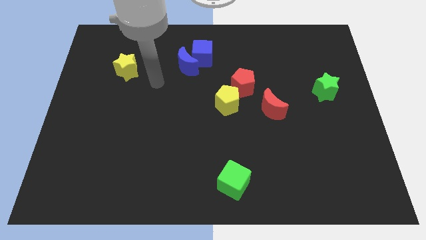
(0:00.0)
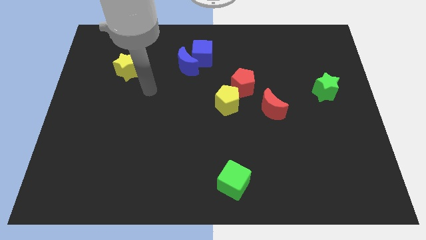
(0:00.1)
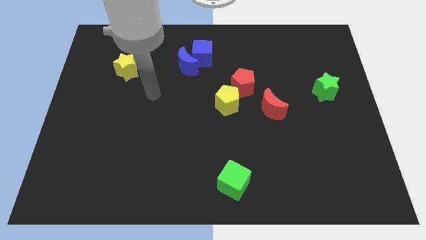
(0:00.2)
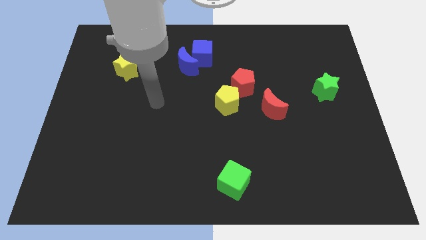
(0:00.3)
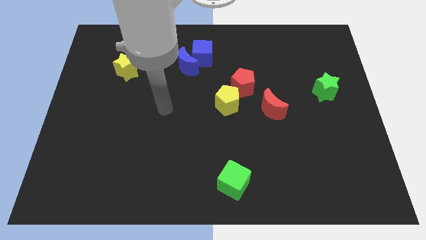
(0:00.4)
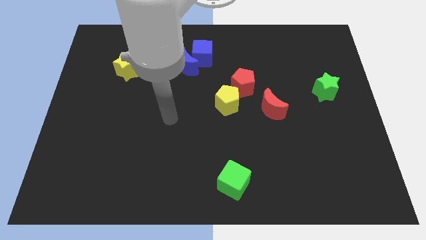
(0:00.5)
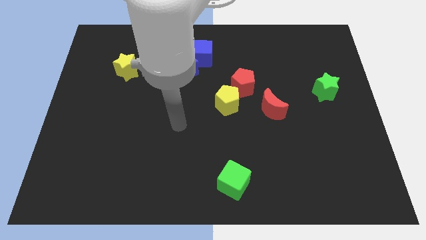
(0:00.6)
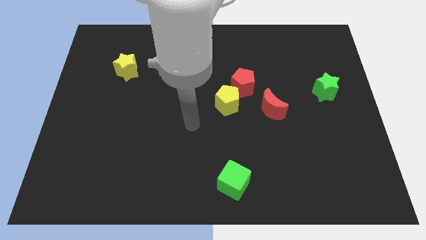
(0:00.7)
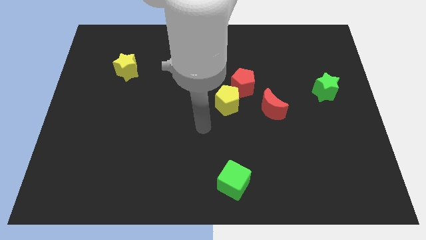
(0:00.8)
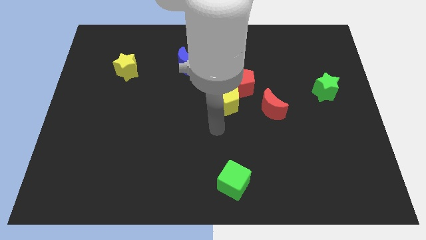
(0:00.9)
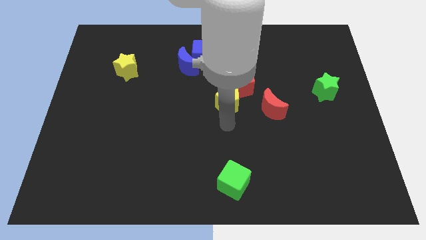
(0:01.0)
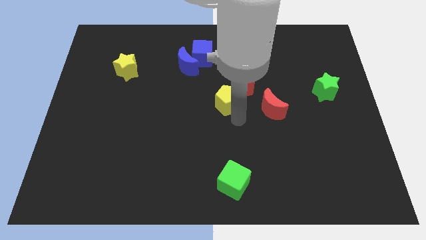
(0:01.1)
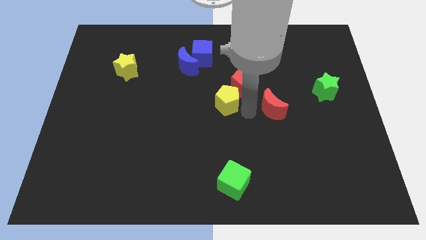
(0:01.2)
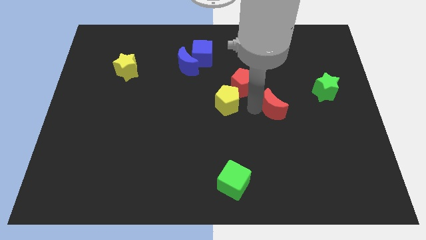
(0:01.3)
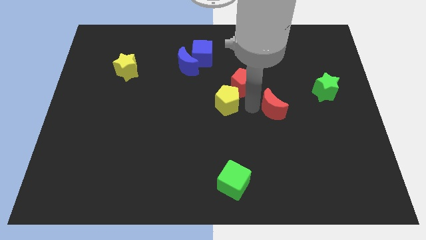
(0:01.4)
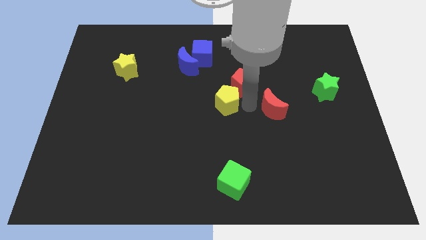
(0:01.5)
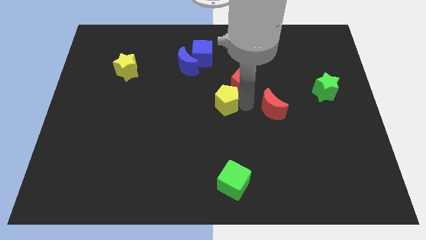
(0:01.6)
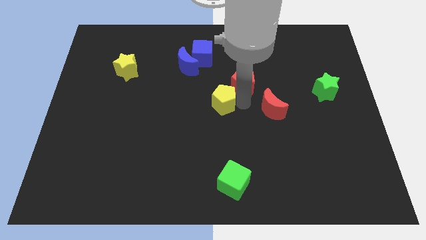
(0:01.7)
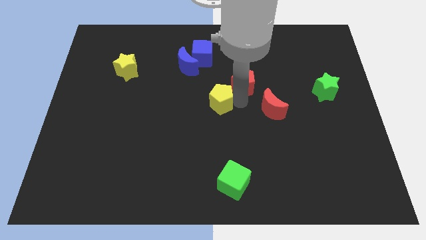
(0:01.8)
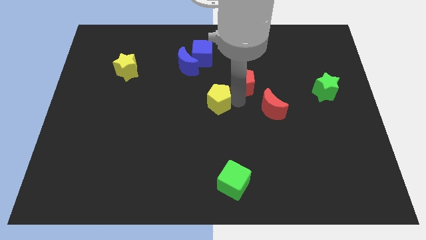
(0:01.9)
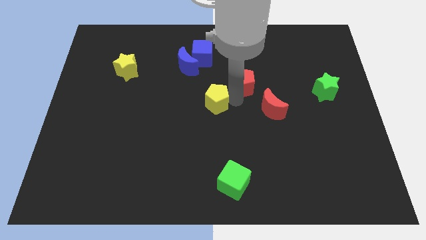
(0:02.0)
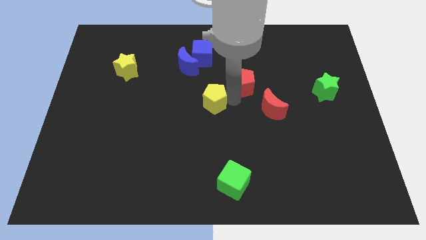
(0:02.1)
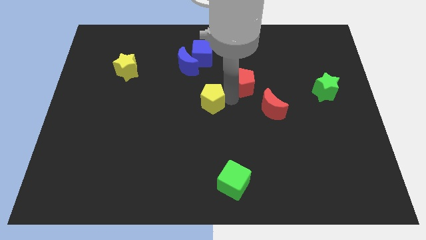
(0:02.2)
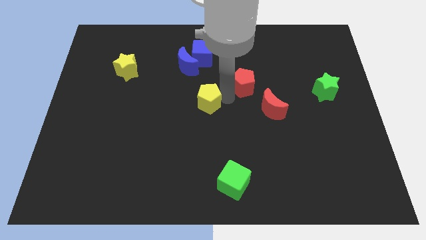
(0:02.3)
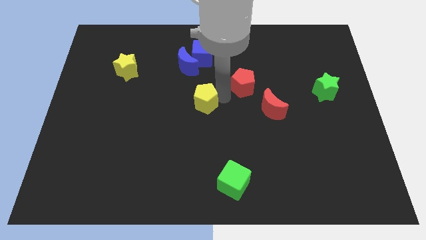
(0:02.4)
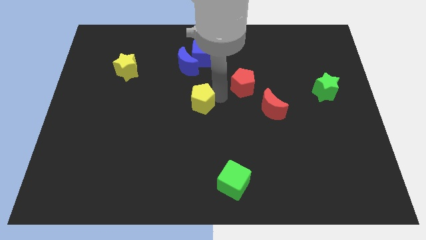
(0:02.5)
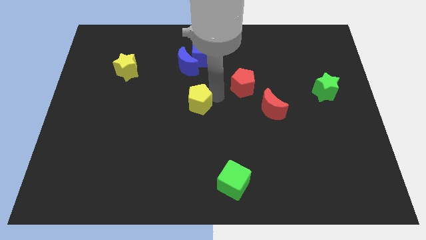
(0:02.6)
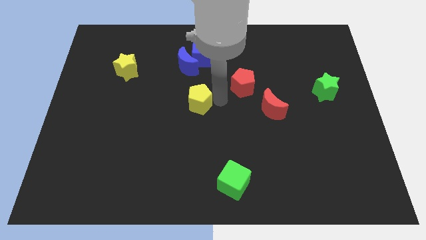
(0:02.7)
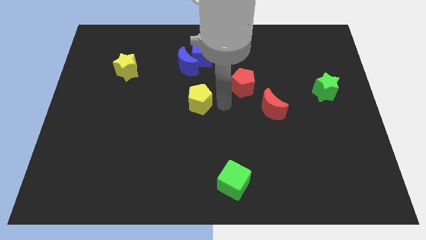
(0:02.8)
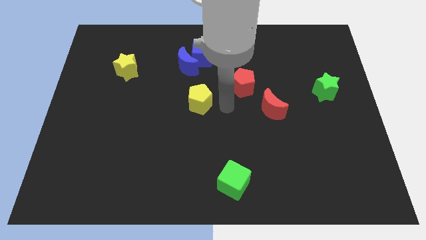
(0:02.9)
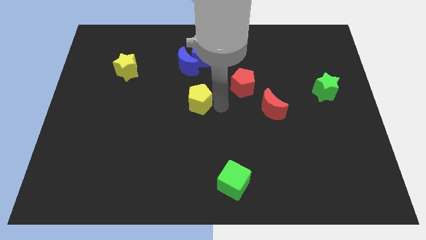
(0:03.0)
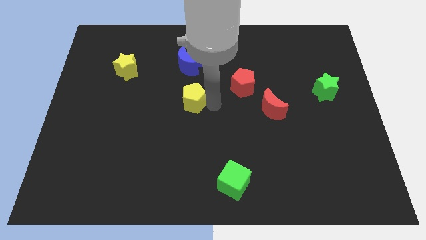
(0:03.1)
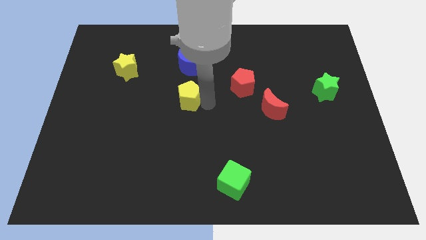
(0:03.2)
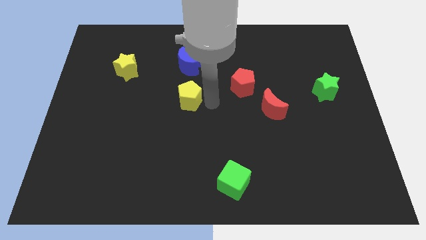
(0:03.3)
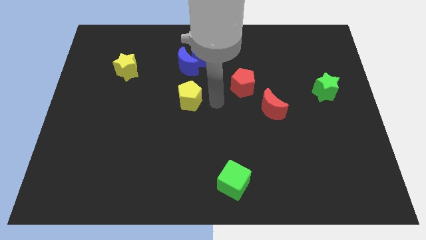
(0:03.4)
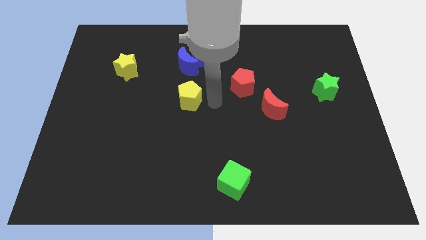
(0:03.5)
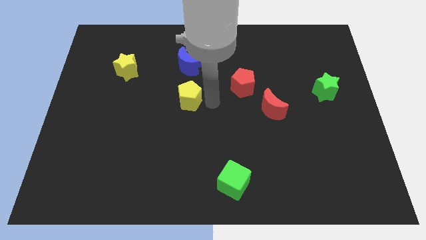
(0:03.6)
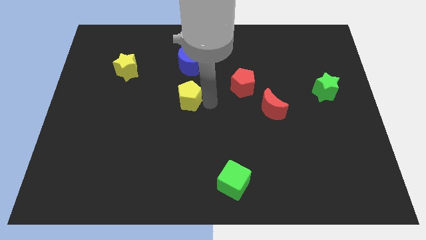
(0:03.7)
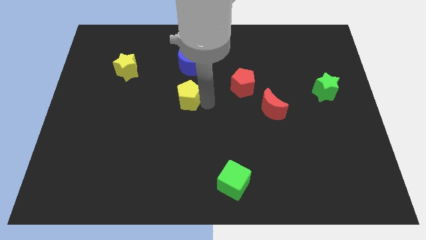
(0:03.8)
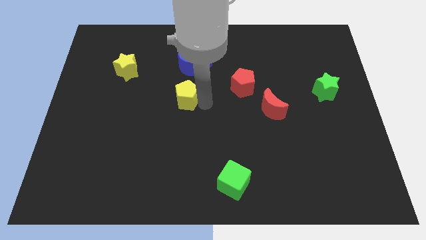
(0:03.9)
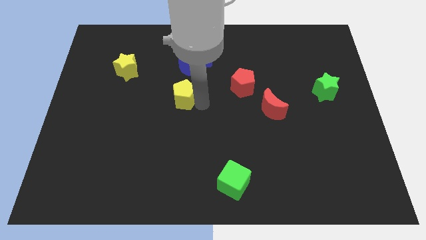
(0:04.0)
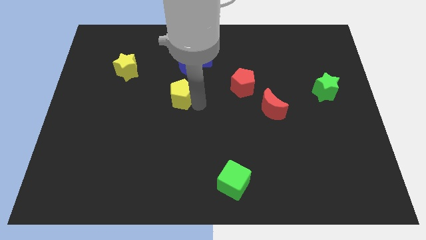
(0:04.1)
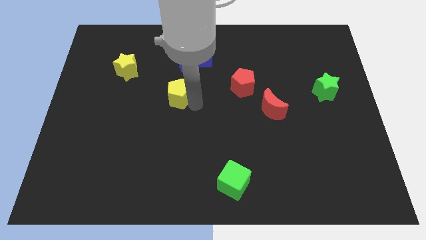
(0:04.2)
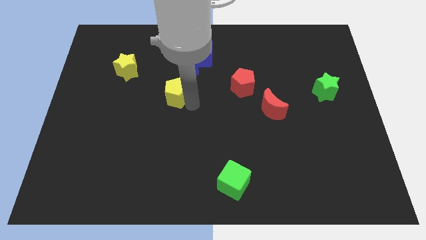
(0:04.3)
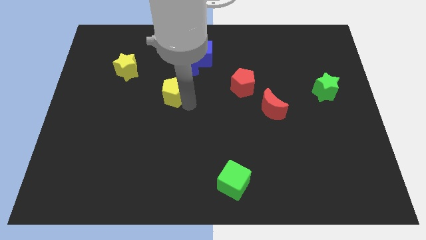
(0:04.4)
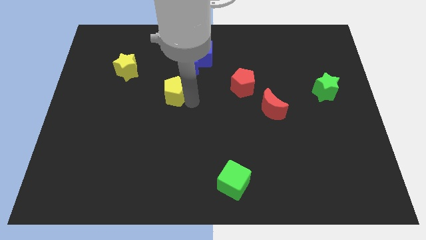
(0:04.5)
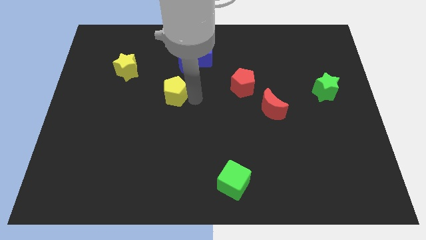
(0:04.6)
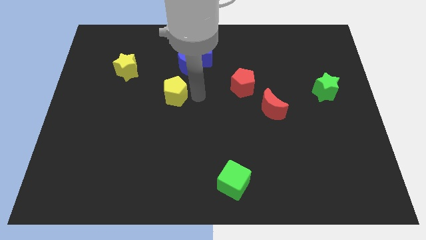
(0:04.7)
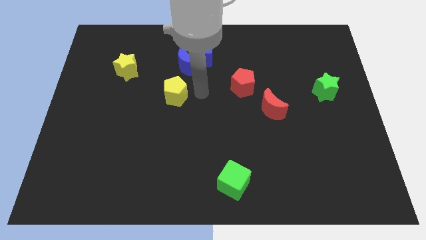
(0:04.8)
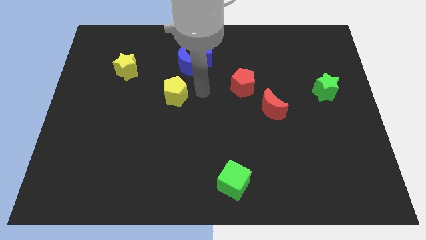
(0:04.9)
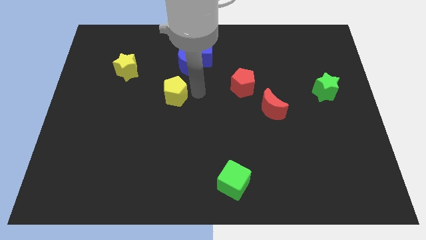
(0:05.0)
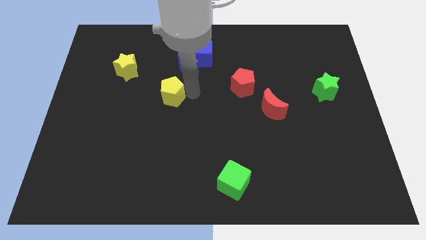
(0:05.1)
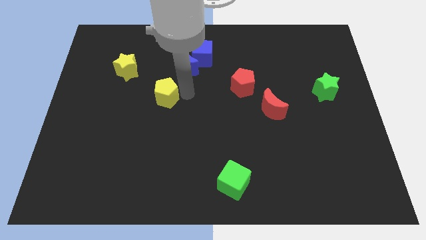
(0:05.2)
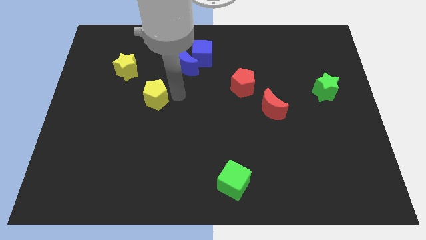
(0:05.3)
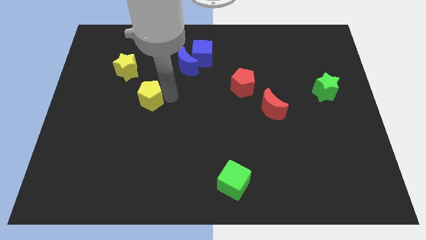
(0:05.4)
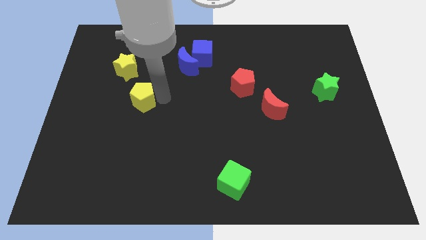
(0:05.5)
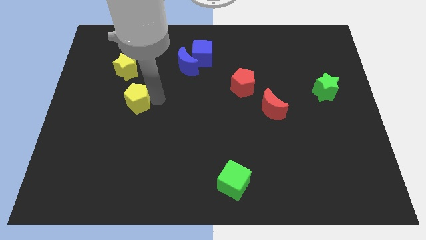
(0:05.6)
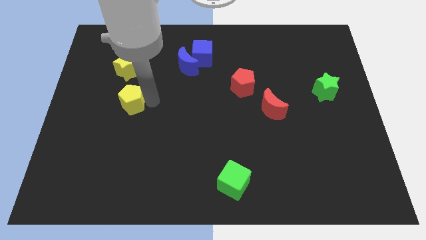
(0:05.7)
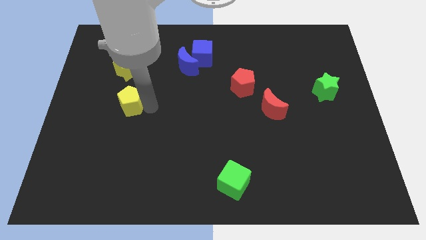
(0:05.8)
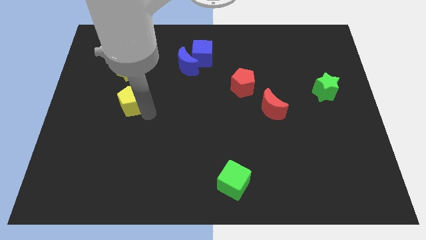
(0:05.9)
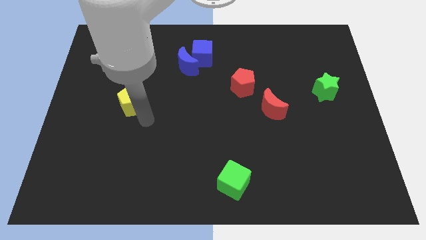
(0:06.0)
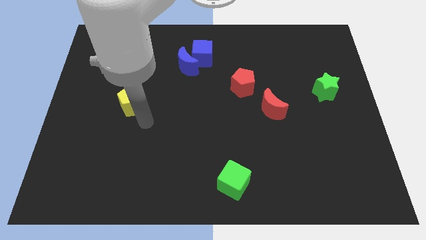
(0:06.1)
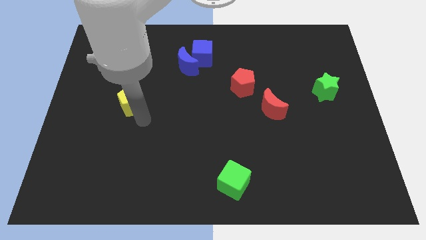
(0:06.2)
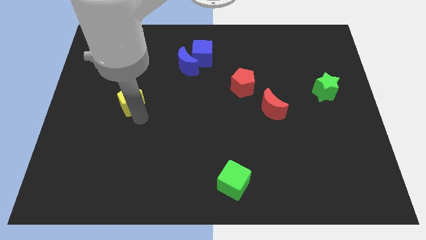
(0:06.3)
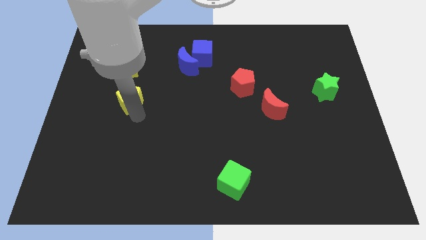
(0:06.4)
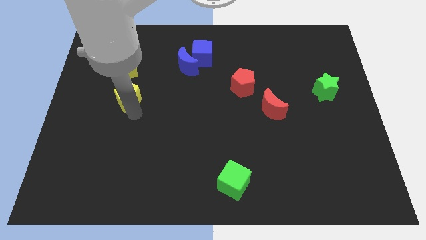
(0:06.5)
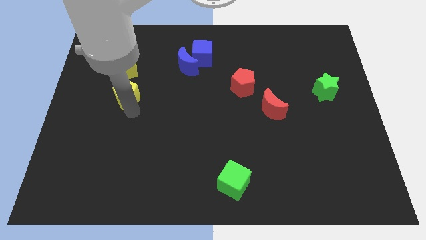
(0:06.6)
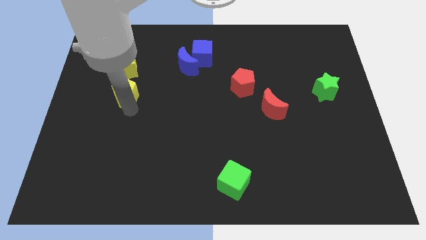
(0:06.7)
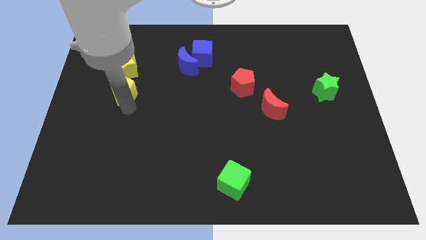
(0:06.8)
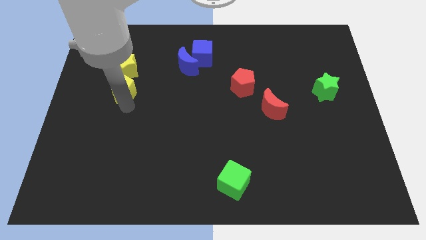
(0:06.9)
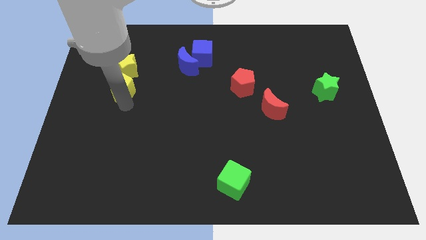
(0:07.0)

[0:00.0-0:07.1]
move the yellow pentagon to the bottom left of the yellow star
